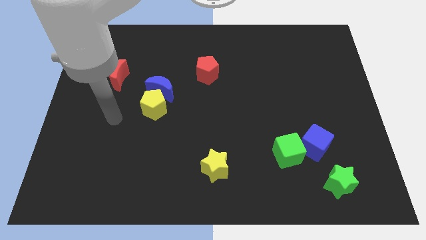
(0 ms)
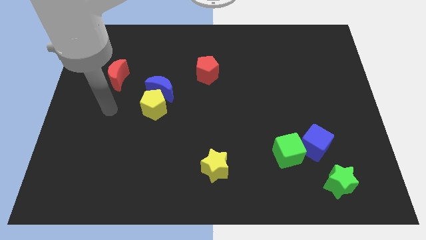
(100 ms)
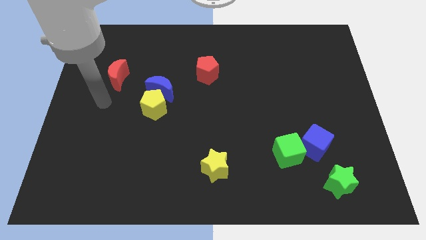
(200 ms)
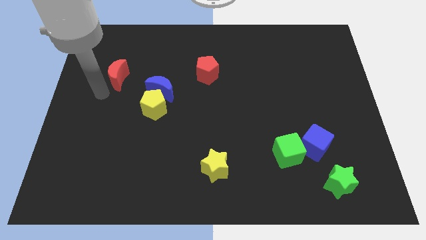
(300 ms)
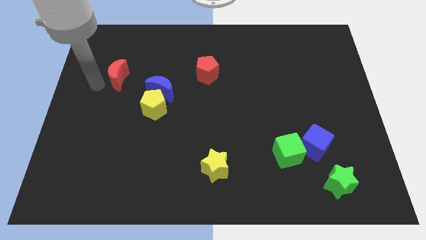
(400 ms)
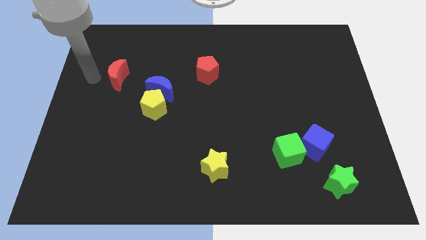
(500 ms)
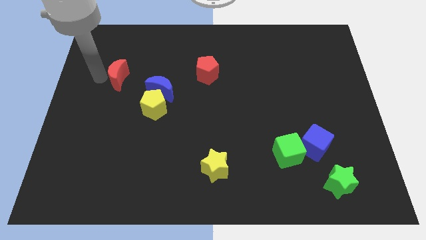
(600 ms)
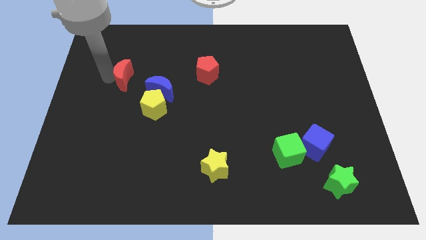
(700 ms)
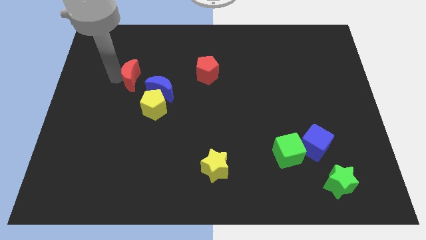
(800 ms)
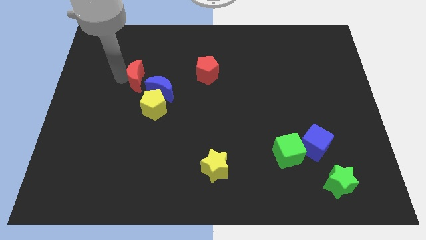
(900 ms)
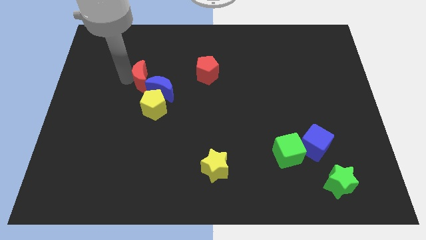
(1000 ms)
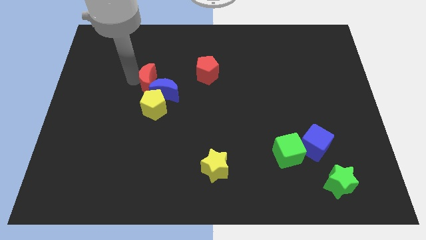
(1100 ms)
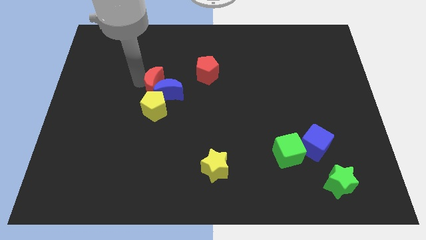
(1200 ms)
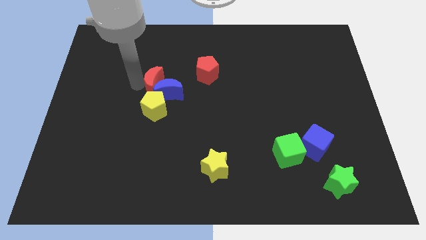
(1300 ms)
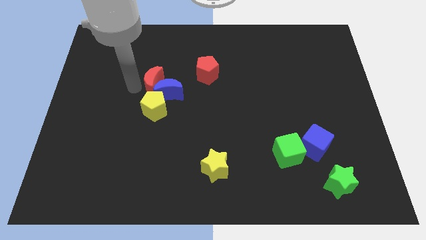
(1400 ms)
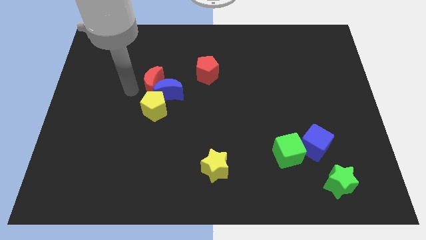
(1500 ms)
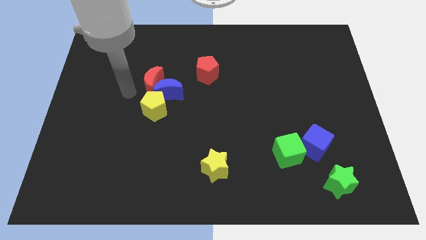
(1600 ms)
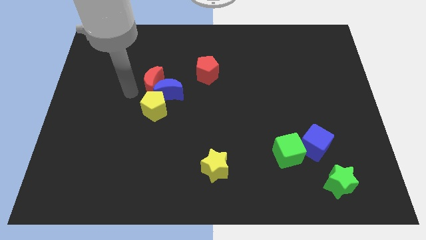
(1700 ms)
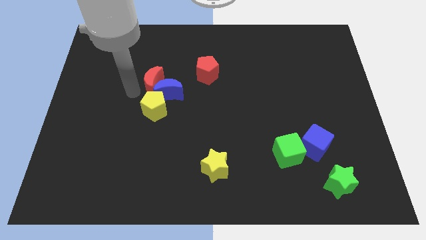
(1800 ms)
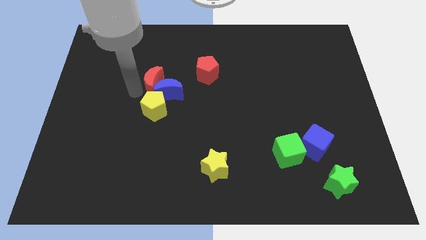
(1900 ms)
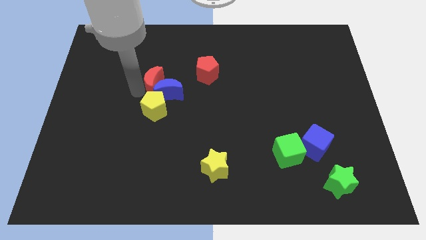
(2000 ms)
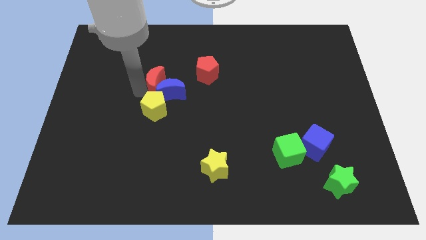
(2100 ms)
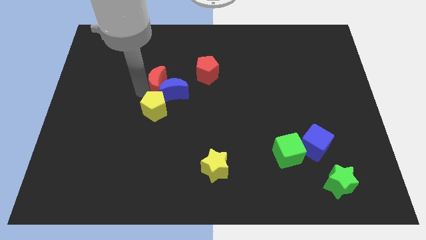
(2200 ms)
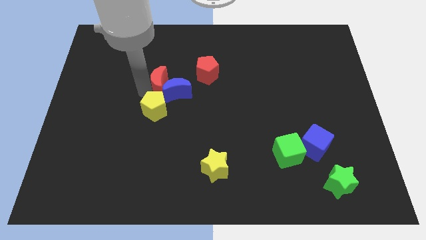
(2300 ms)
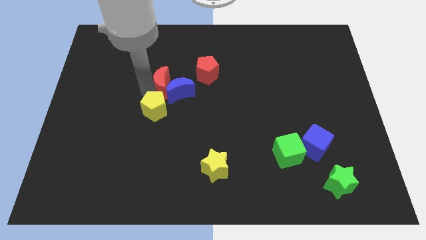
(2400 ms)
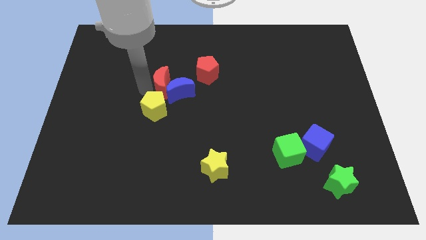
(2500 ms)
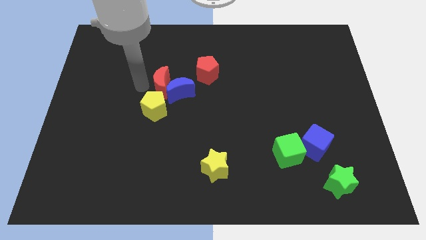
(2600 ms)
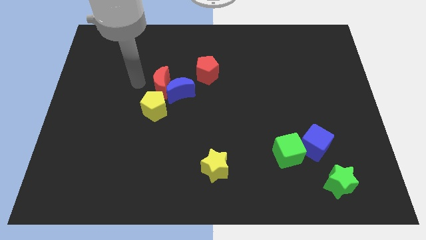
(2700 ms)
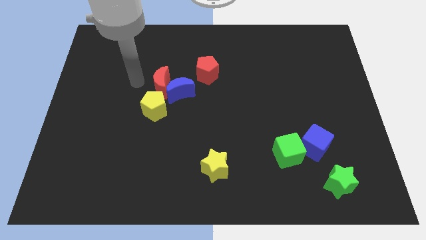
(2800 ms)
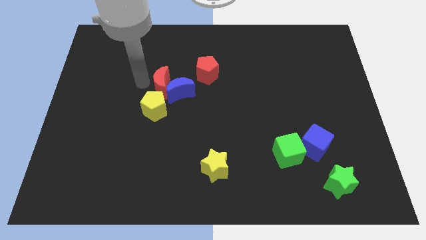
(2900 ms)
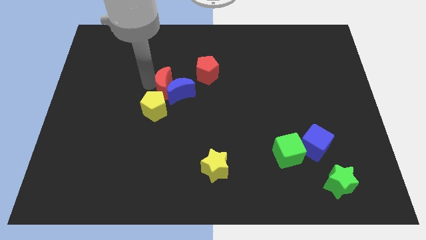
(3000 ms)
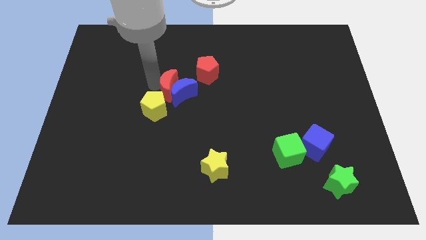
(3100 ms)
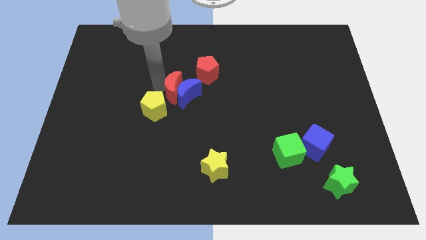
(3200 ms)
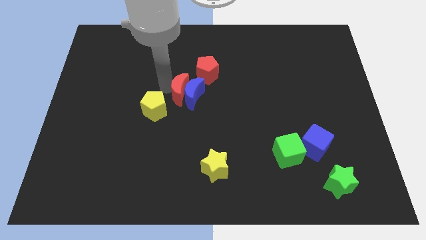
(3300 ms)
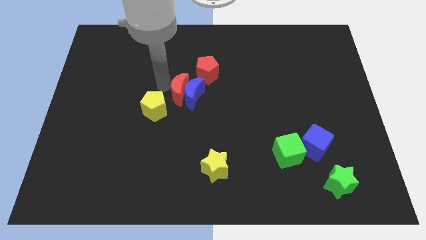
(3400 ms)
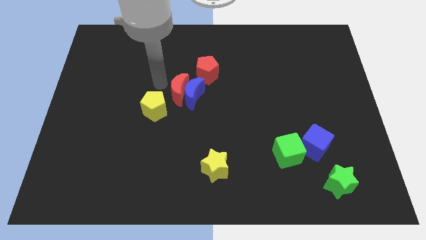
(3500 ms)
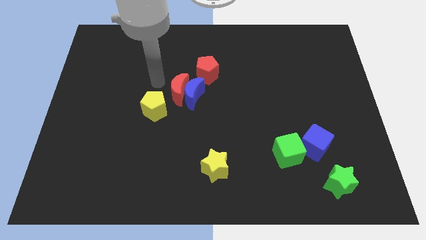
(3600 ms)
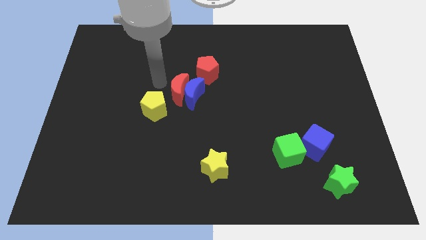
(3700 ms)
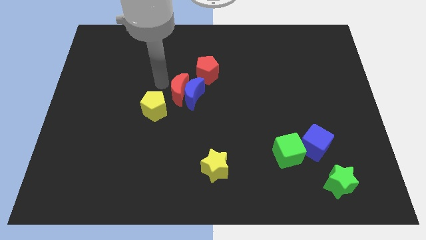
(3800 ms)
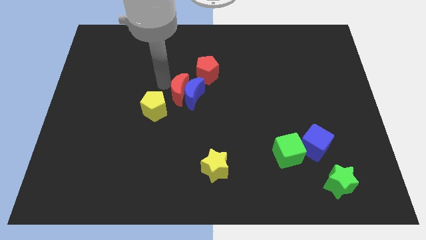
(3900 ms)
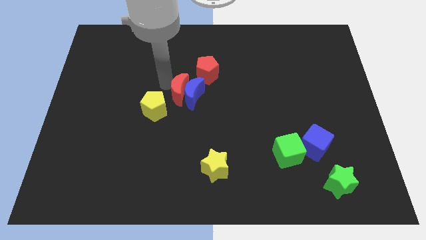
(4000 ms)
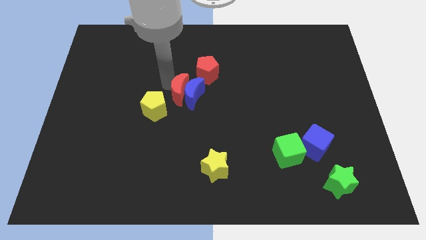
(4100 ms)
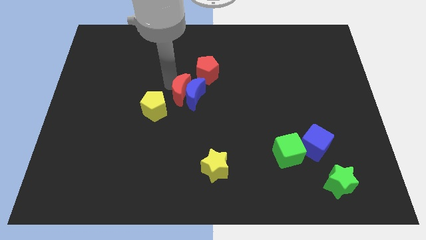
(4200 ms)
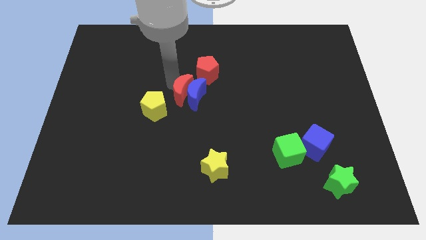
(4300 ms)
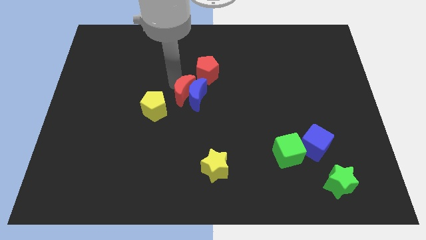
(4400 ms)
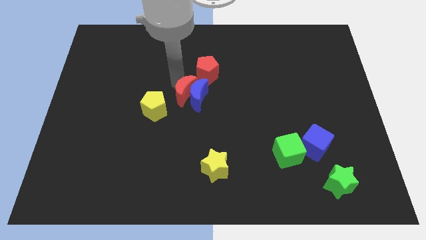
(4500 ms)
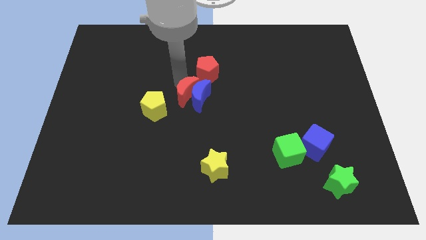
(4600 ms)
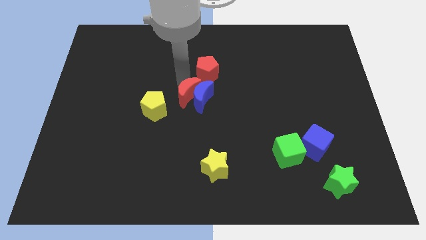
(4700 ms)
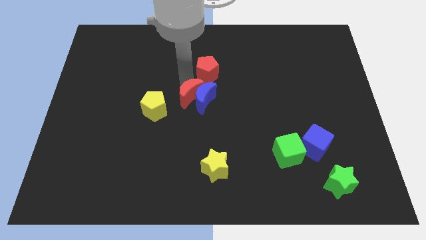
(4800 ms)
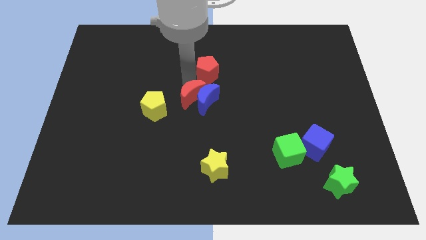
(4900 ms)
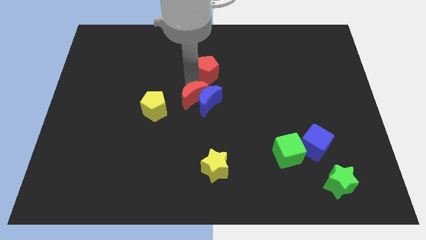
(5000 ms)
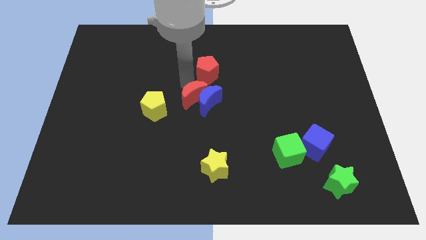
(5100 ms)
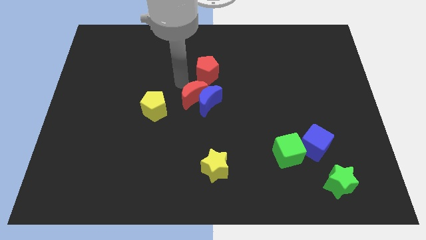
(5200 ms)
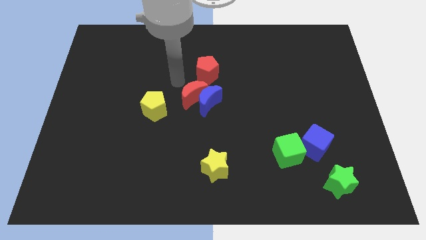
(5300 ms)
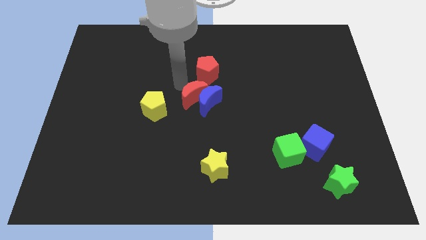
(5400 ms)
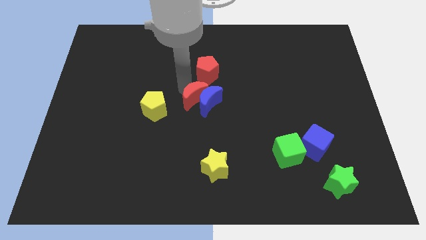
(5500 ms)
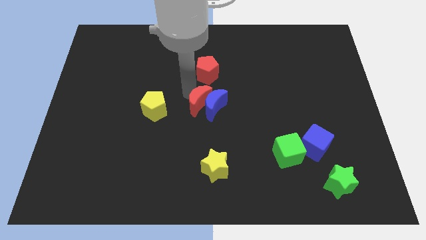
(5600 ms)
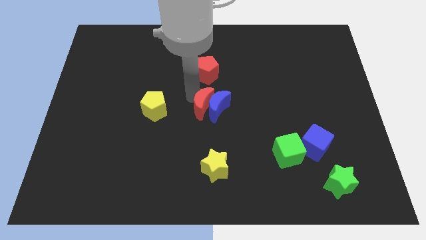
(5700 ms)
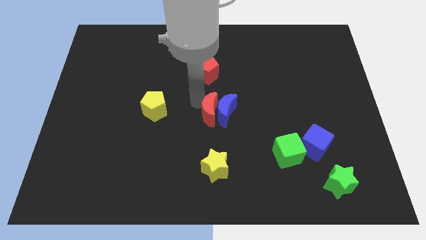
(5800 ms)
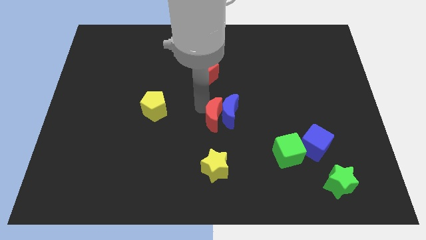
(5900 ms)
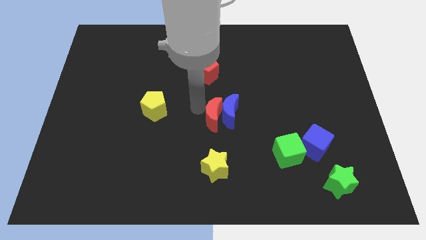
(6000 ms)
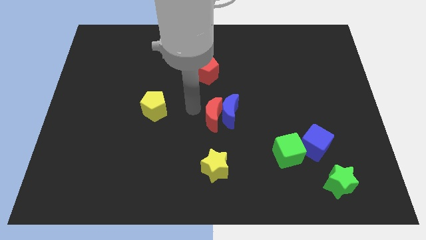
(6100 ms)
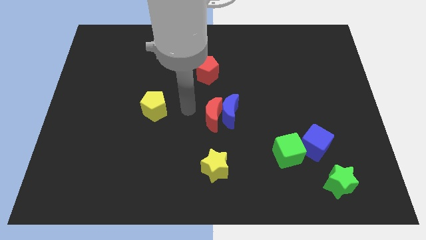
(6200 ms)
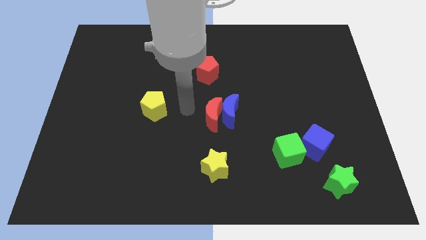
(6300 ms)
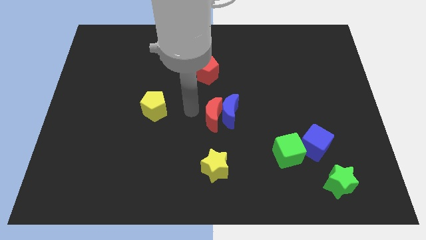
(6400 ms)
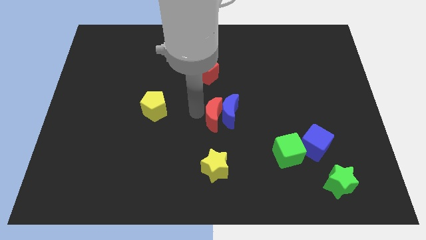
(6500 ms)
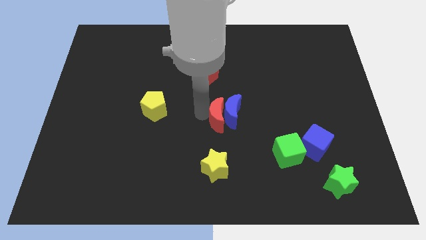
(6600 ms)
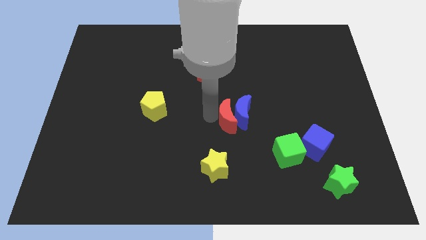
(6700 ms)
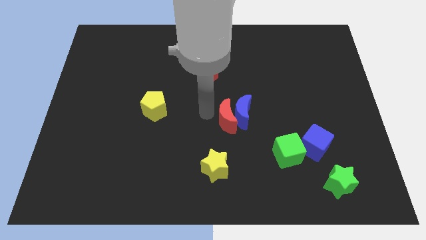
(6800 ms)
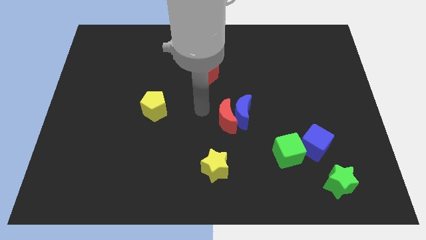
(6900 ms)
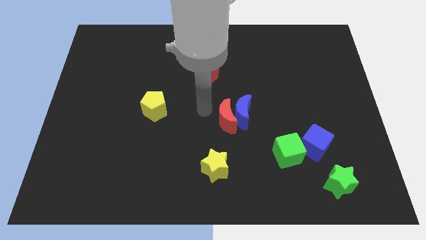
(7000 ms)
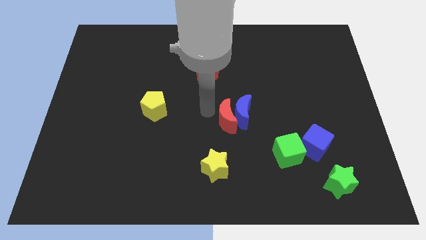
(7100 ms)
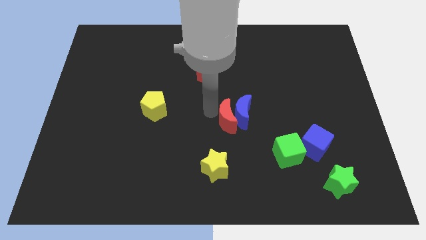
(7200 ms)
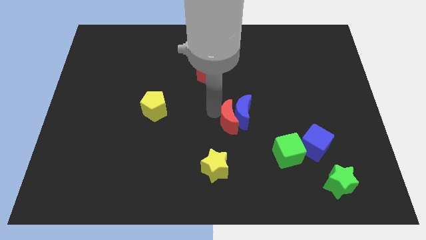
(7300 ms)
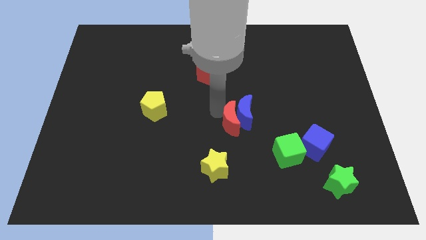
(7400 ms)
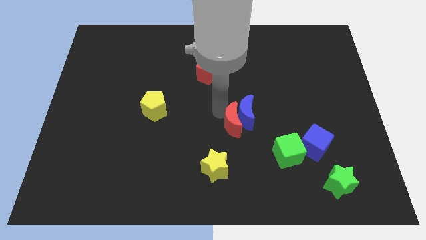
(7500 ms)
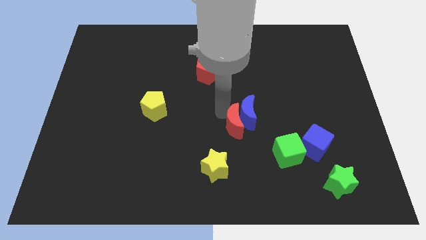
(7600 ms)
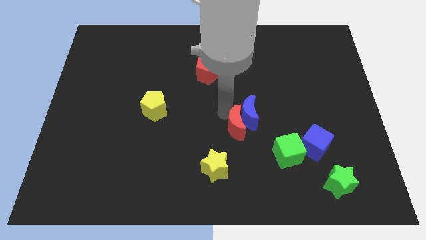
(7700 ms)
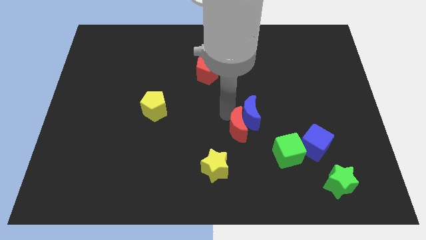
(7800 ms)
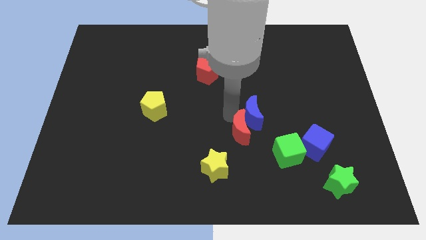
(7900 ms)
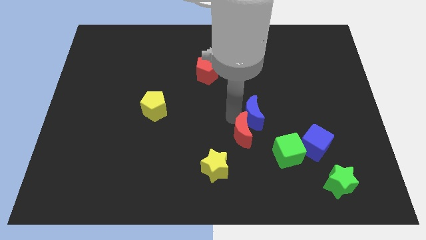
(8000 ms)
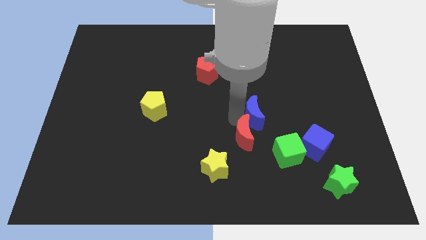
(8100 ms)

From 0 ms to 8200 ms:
slide the red moon to the left of the blue cube
